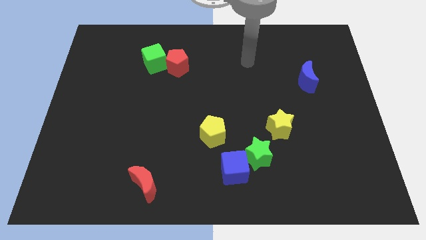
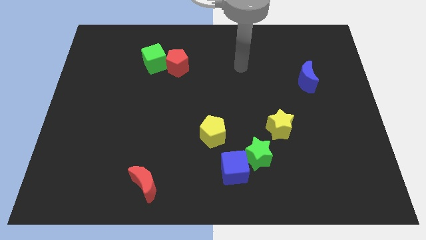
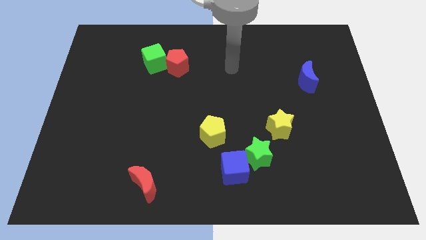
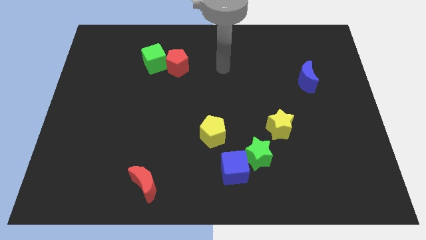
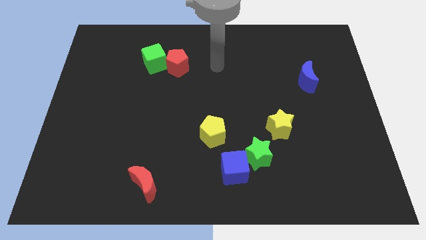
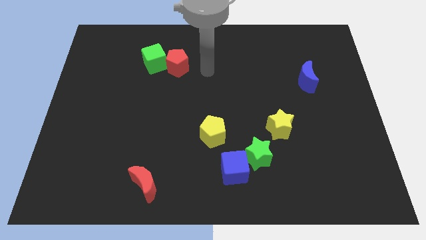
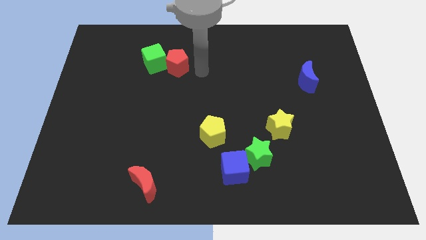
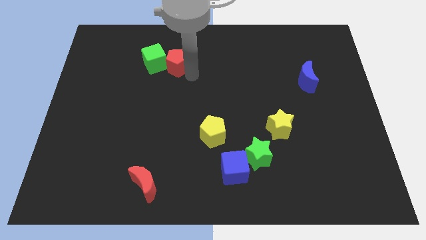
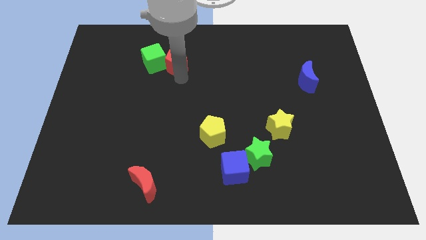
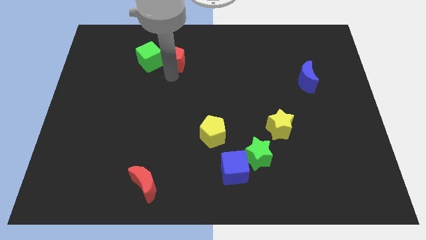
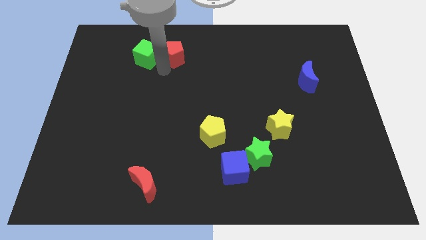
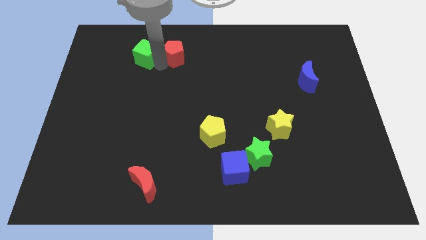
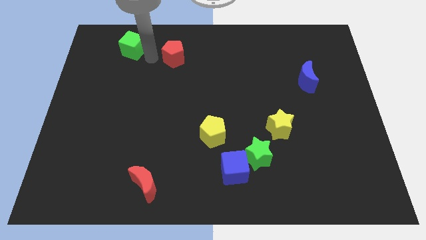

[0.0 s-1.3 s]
pull the red pentagon apart from the green cube

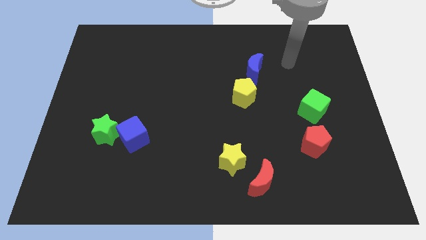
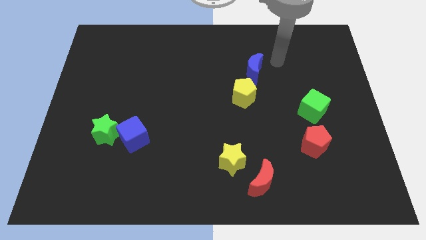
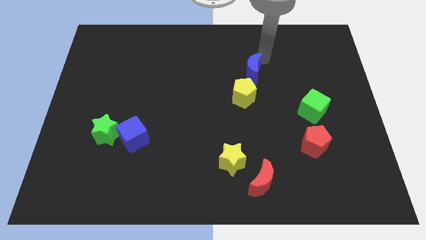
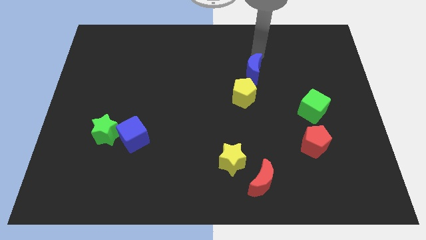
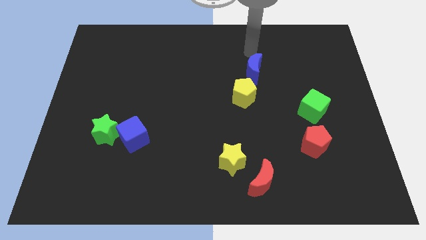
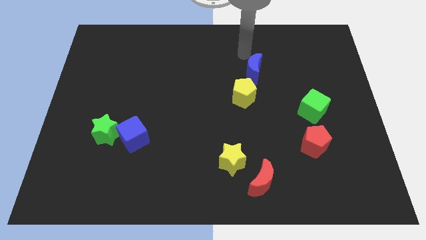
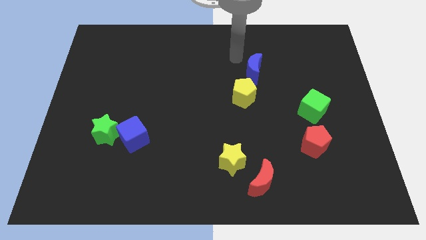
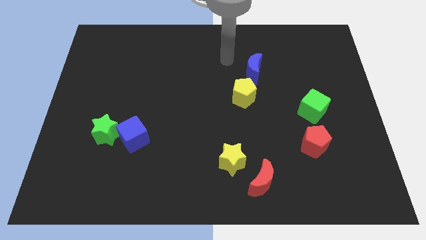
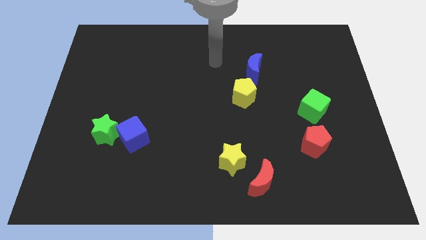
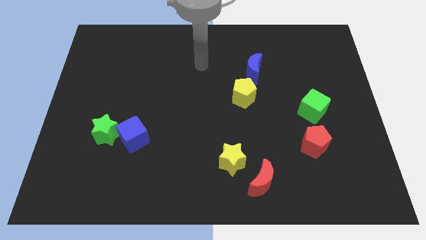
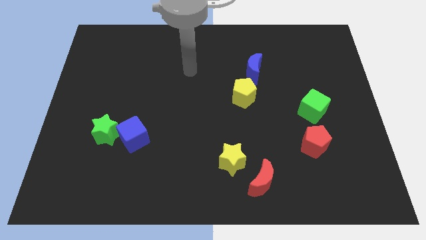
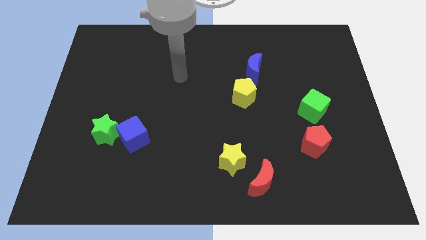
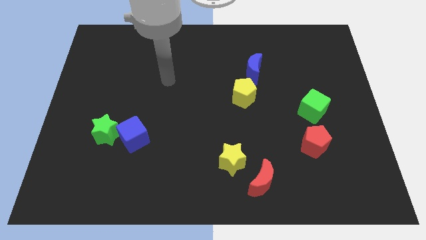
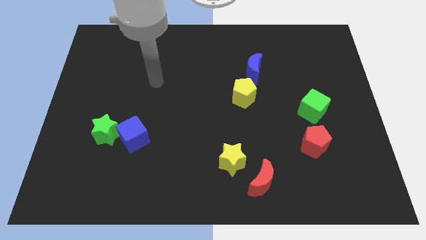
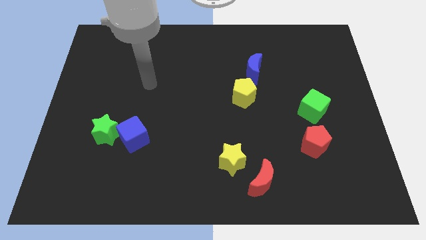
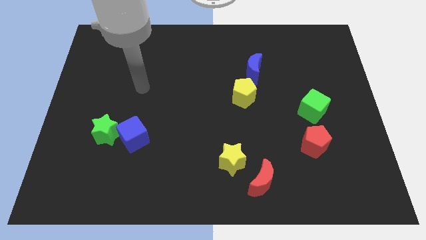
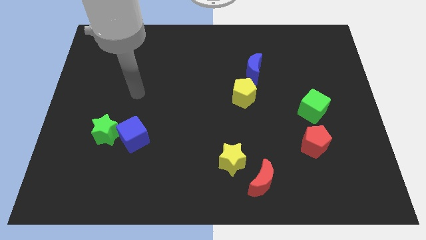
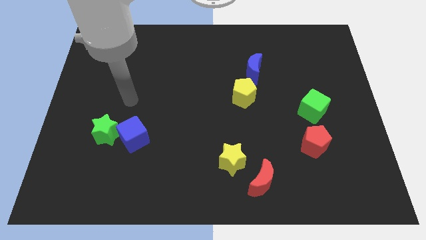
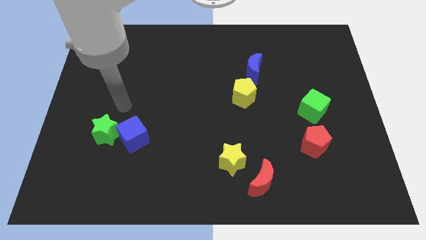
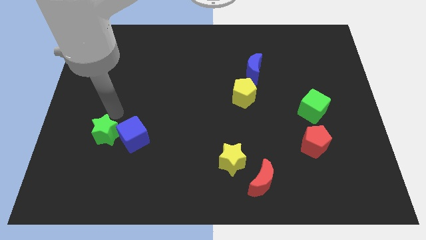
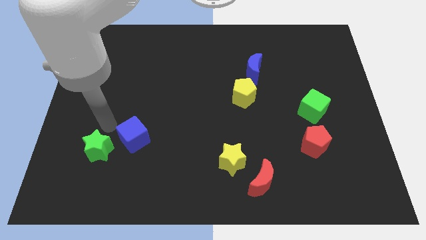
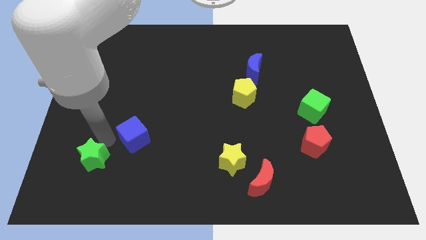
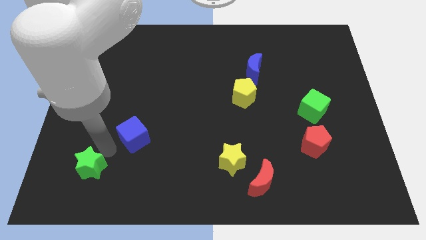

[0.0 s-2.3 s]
pull the blue cube apart from the green star

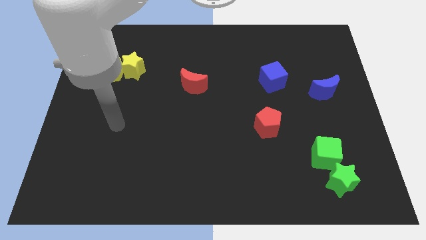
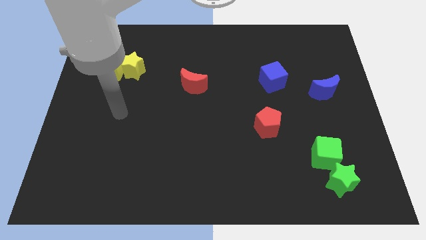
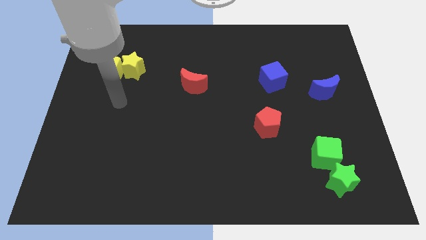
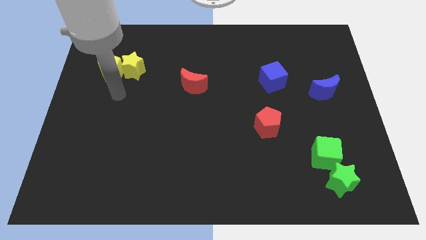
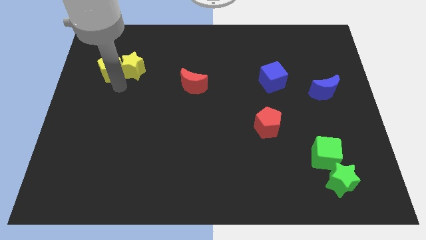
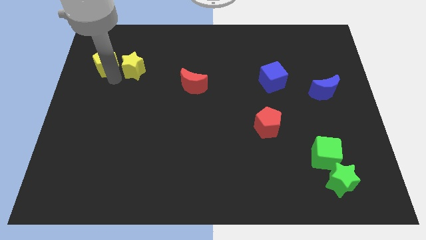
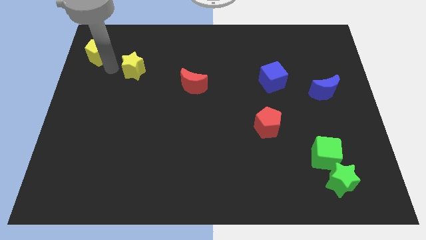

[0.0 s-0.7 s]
move the yellow star away from the yellow pentagon

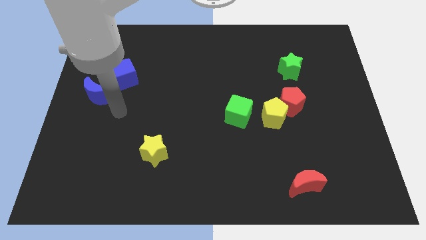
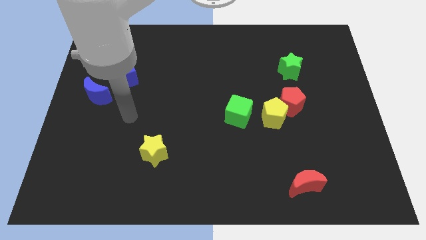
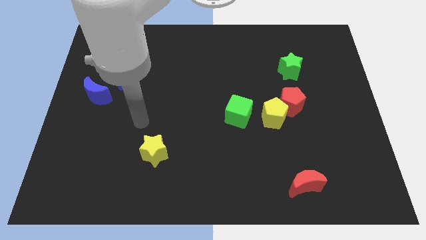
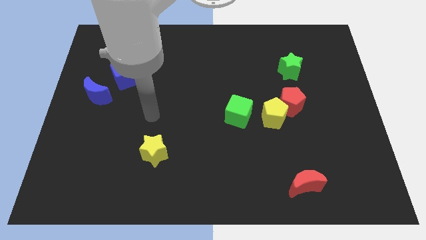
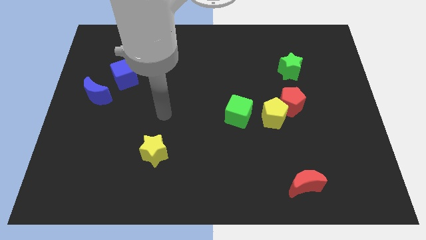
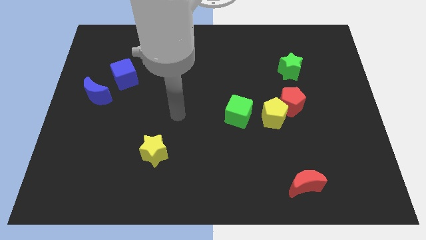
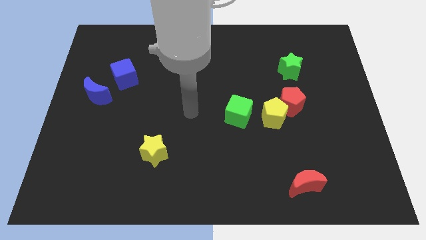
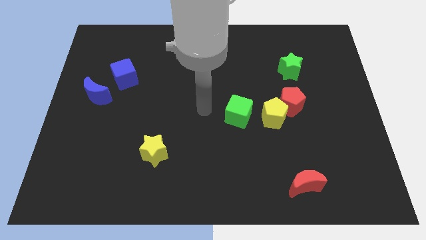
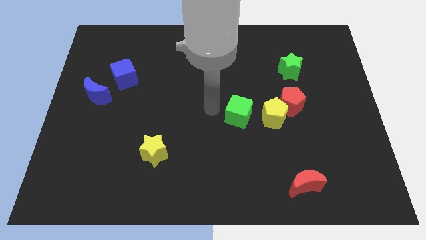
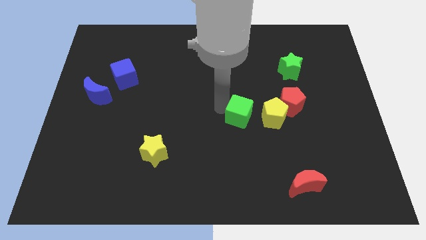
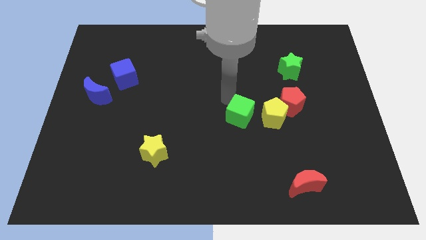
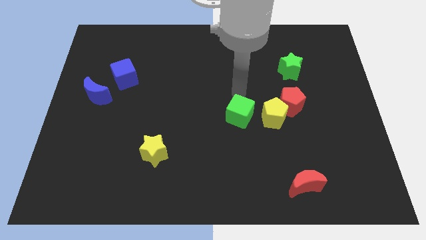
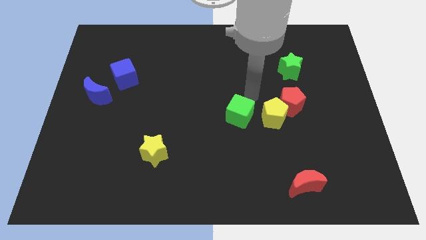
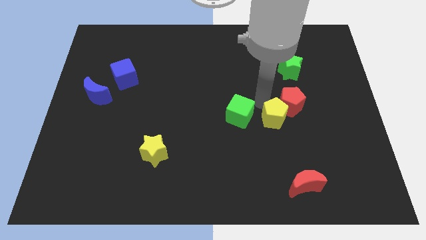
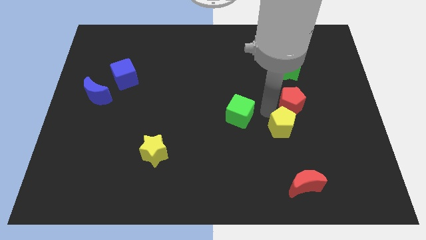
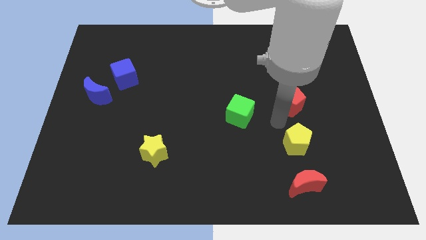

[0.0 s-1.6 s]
separate the red pentagon from the yellow pentagon

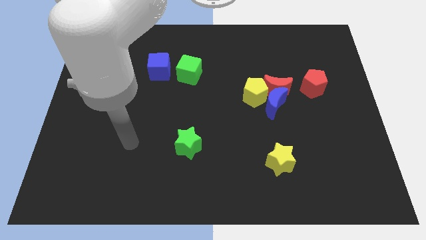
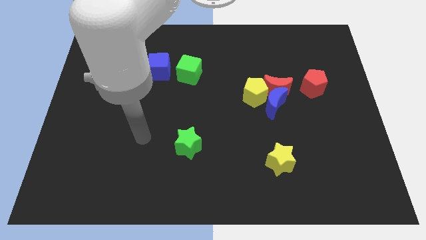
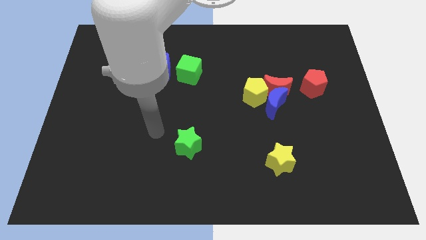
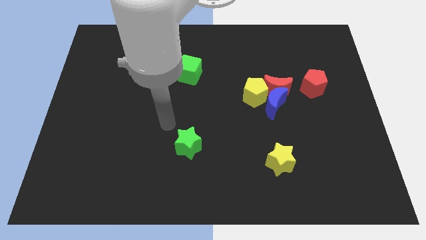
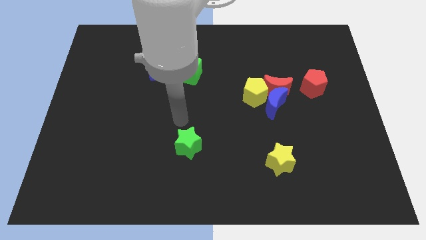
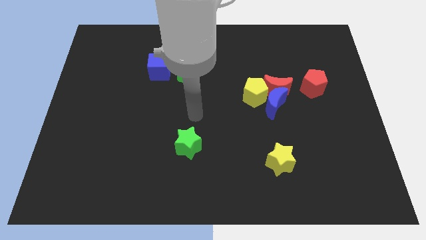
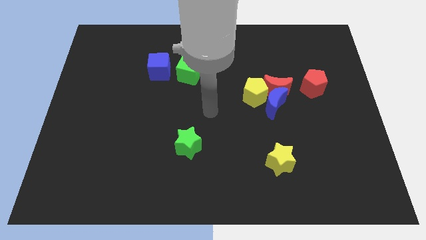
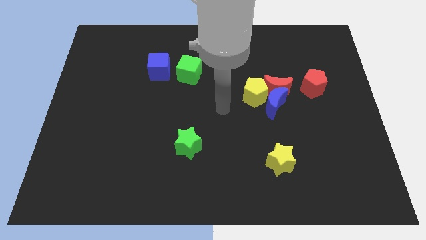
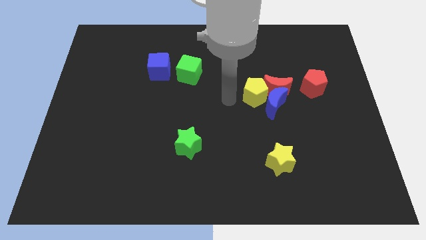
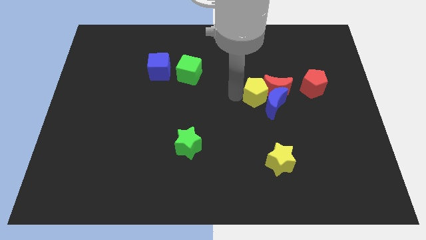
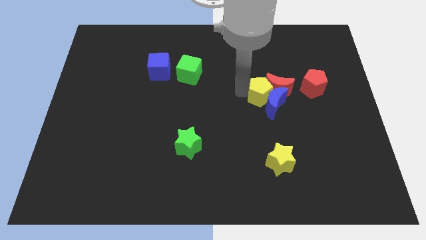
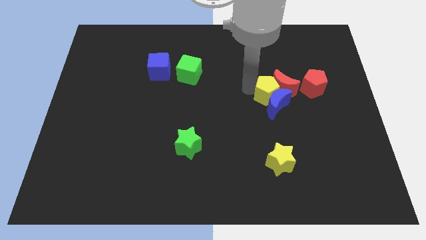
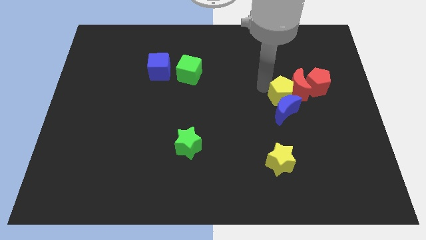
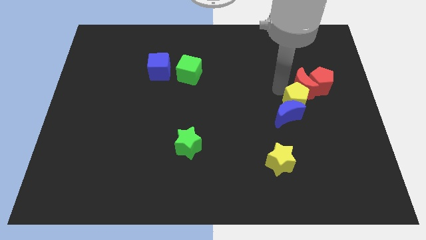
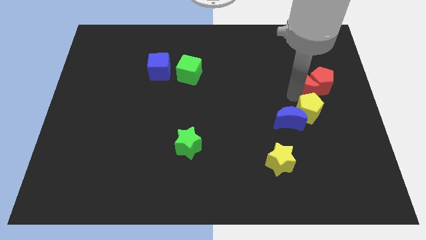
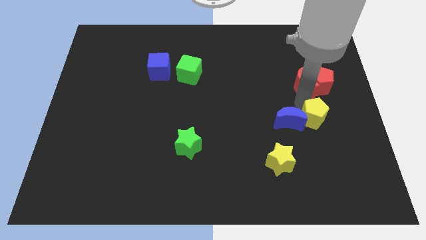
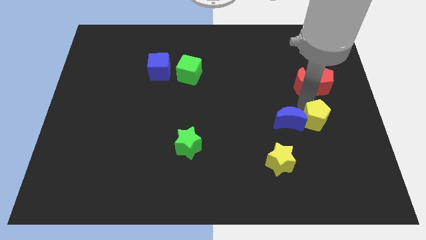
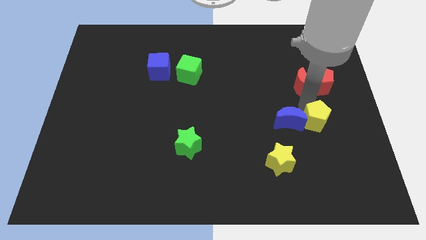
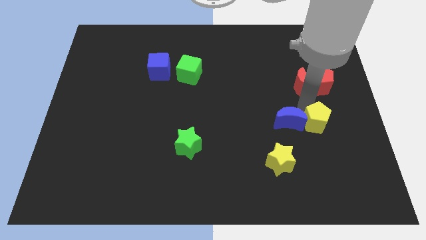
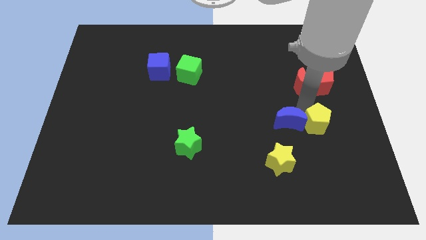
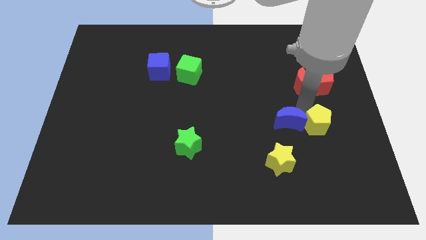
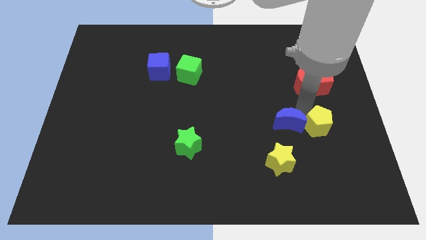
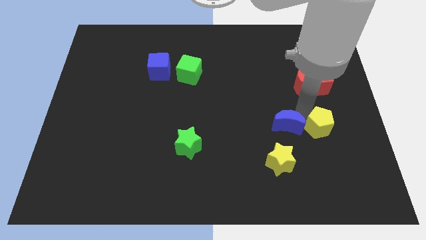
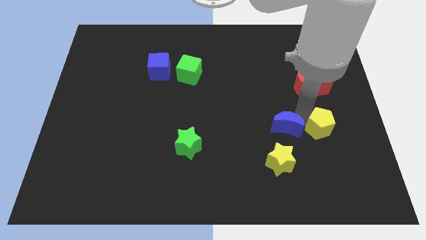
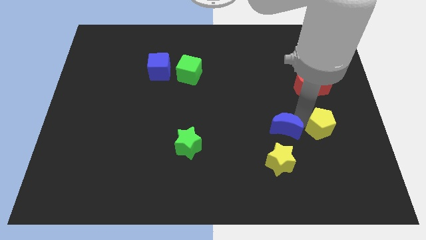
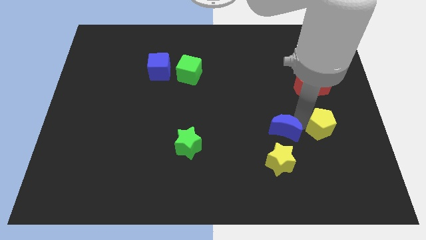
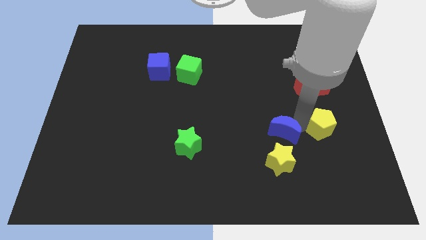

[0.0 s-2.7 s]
move the blue moon away from the red moon and yellow pentagon

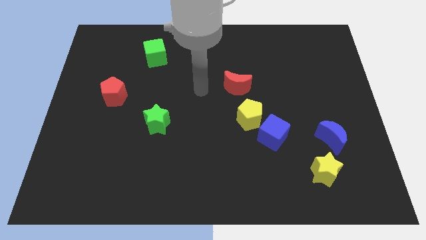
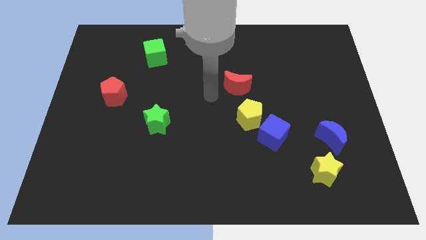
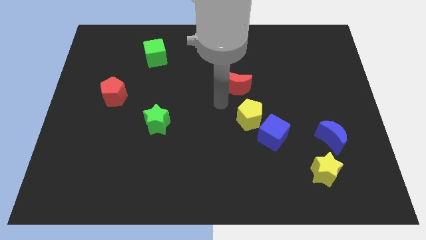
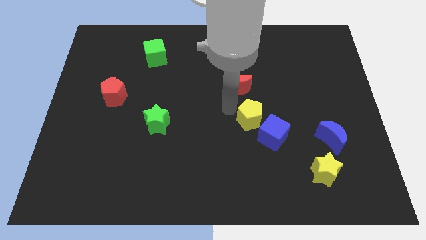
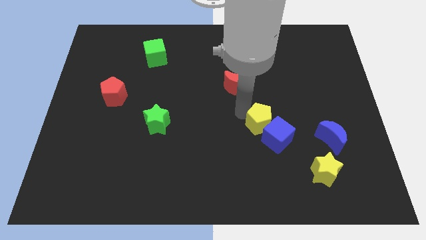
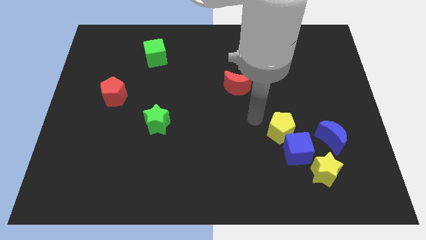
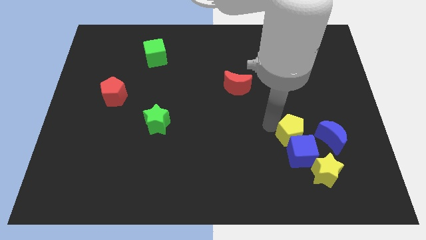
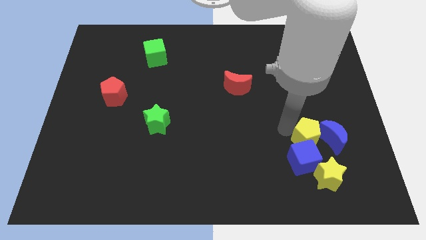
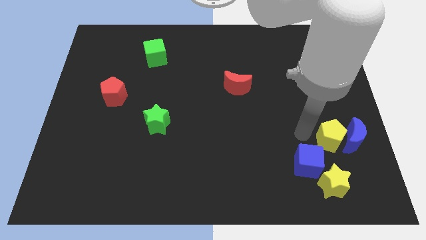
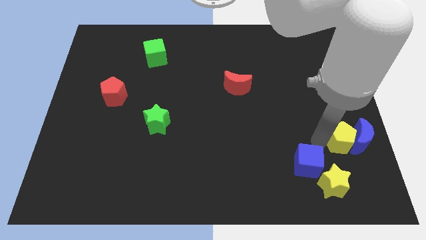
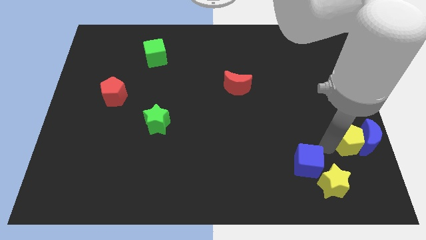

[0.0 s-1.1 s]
separate the blue cube from the yellow pentagon
